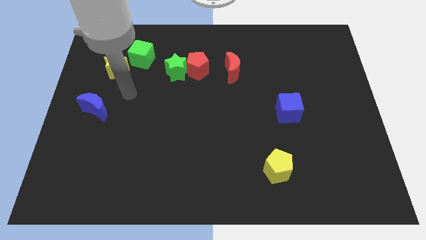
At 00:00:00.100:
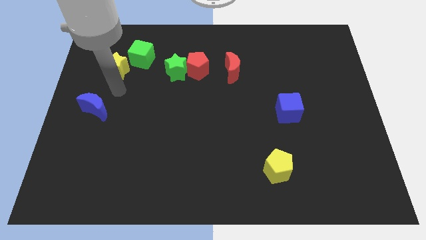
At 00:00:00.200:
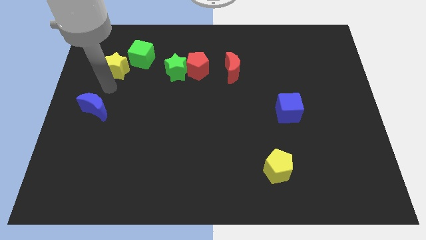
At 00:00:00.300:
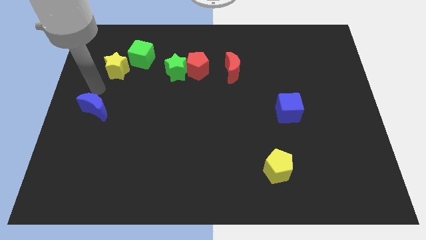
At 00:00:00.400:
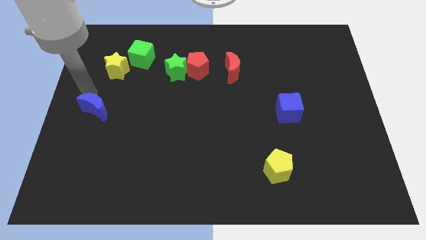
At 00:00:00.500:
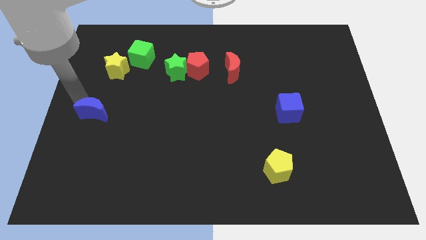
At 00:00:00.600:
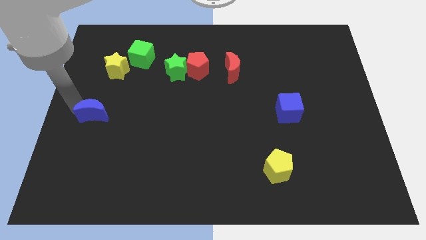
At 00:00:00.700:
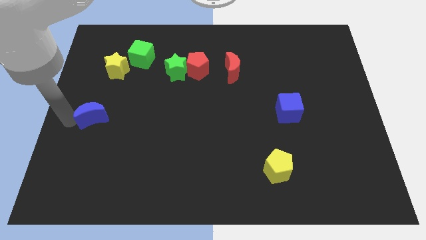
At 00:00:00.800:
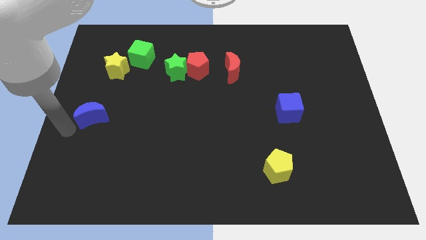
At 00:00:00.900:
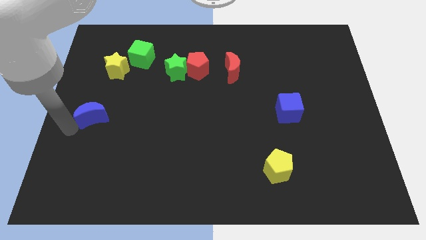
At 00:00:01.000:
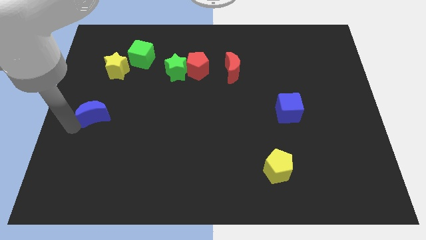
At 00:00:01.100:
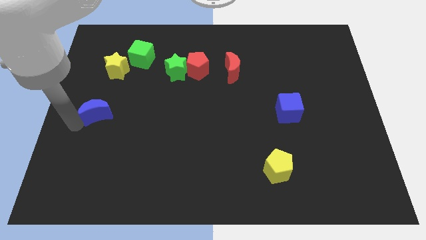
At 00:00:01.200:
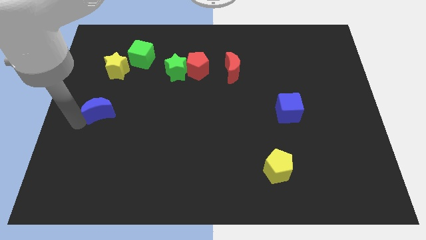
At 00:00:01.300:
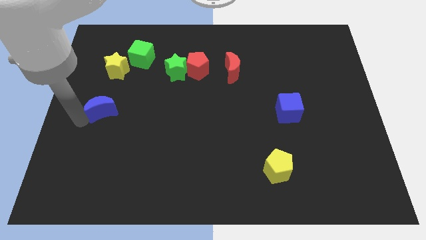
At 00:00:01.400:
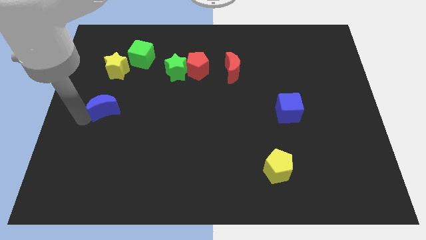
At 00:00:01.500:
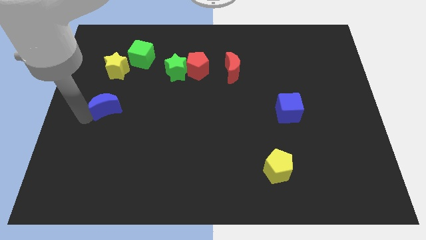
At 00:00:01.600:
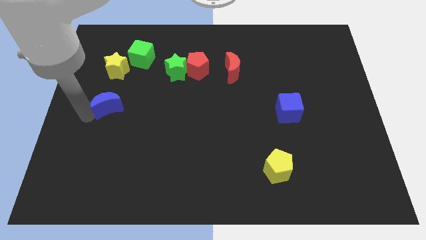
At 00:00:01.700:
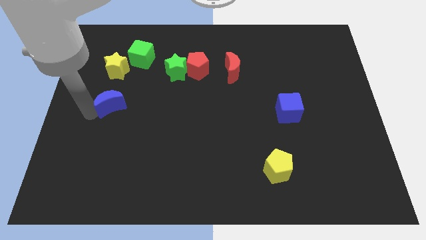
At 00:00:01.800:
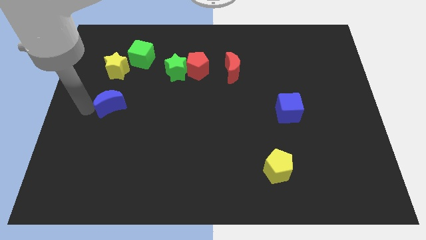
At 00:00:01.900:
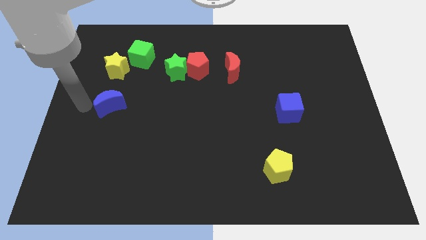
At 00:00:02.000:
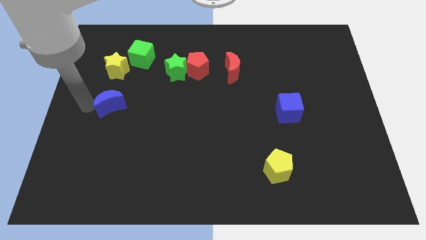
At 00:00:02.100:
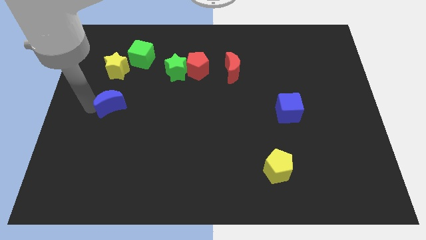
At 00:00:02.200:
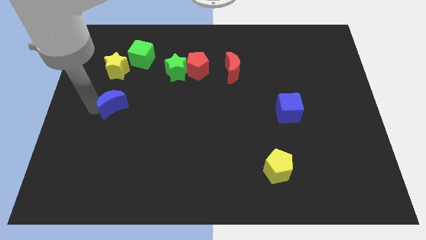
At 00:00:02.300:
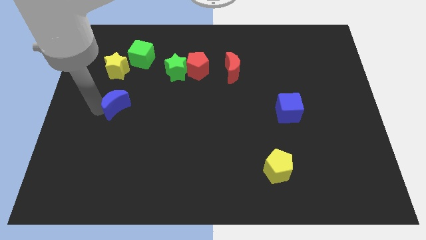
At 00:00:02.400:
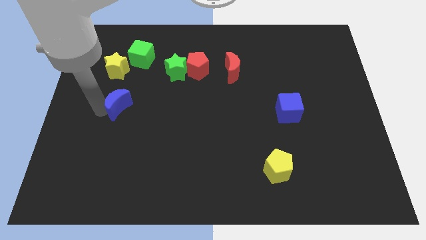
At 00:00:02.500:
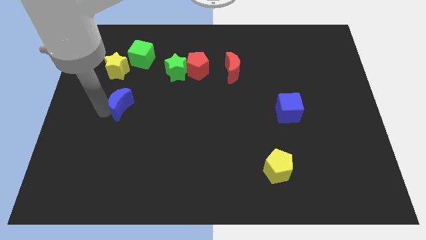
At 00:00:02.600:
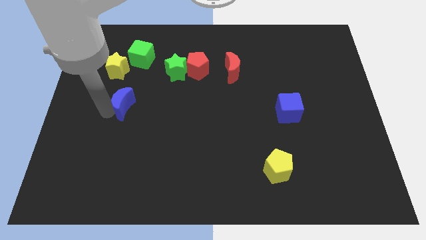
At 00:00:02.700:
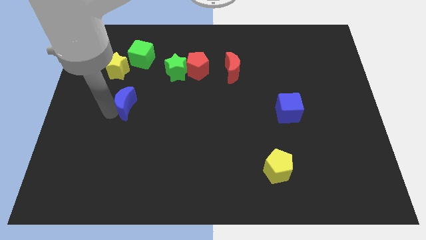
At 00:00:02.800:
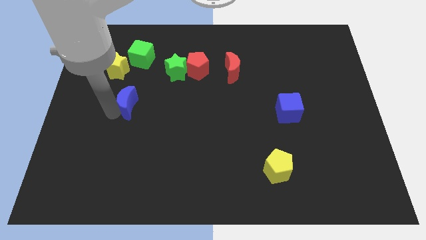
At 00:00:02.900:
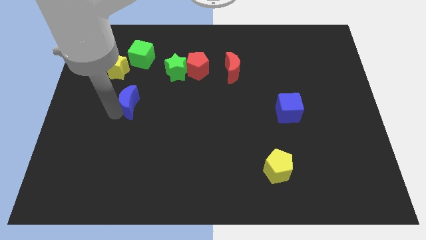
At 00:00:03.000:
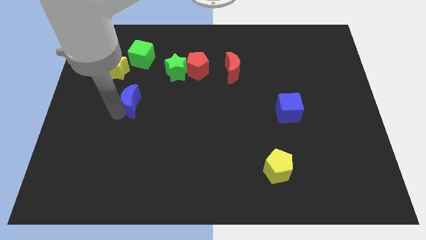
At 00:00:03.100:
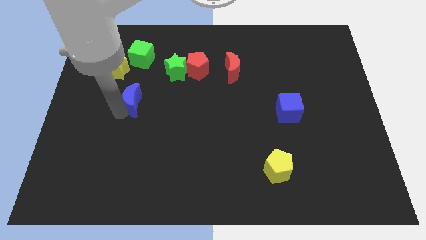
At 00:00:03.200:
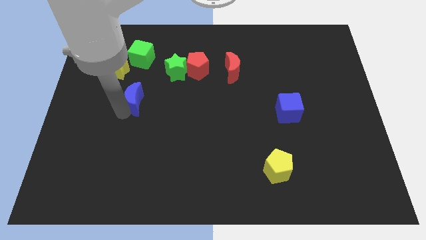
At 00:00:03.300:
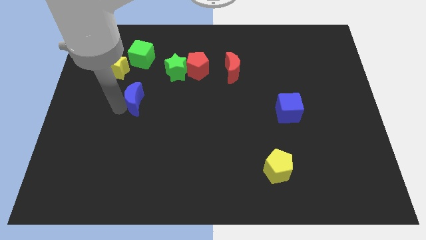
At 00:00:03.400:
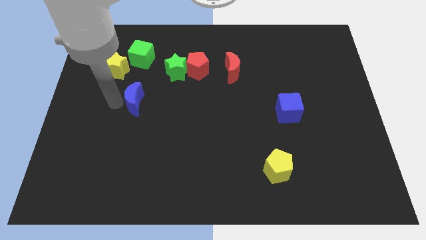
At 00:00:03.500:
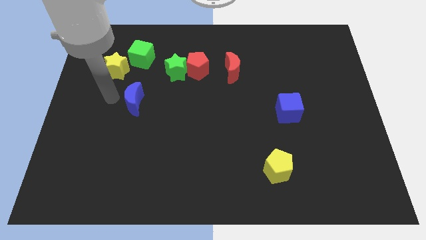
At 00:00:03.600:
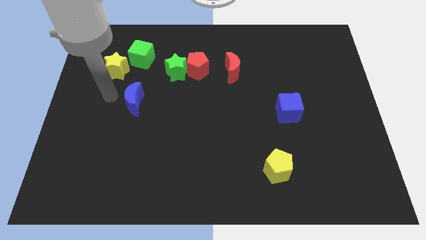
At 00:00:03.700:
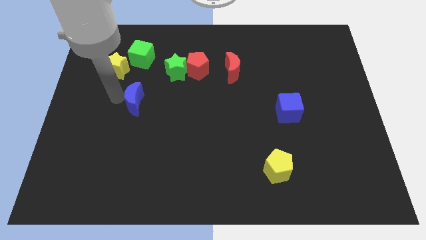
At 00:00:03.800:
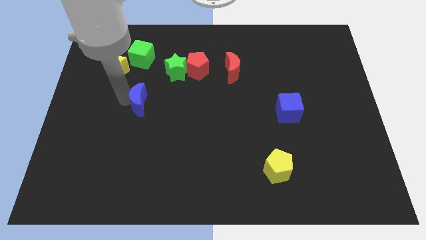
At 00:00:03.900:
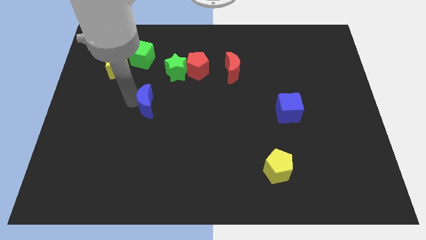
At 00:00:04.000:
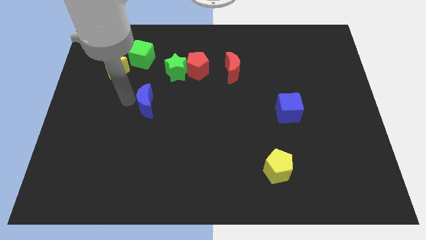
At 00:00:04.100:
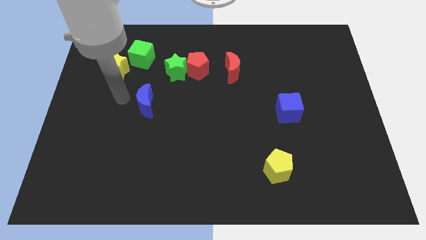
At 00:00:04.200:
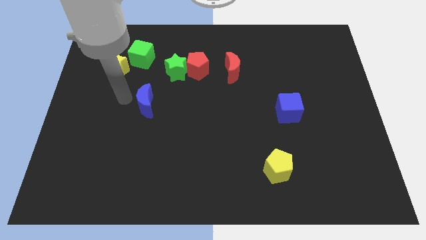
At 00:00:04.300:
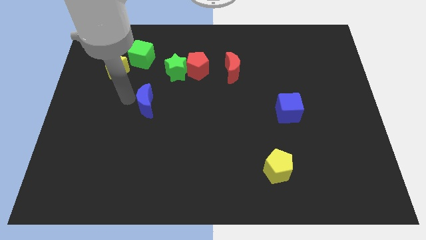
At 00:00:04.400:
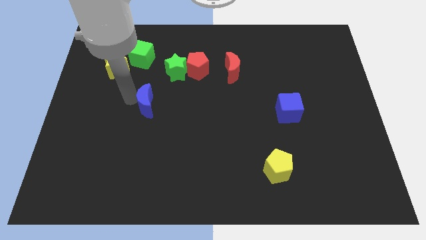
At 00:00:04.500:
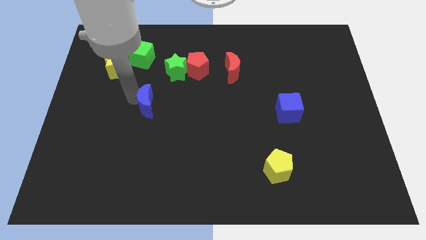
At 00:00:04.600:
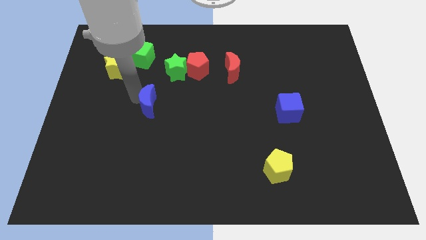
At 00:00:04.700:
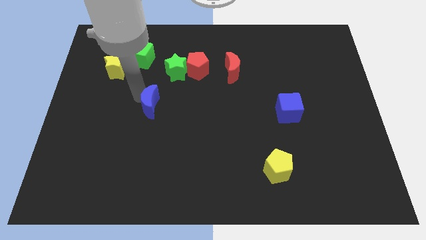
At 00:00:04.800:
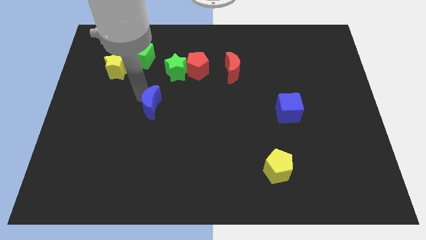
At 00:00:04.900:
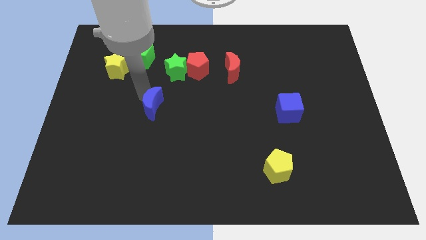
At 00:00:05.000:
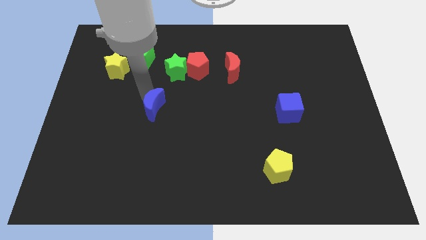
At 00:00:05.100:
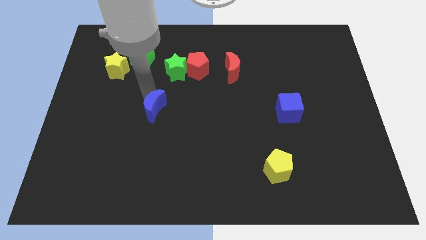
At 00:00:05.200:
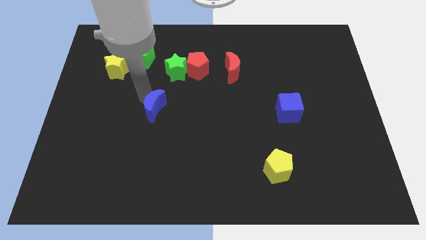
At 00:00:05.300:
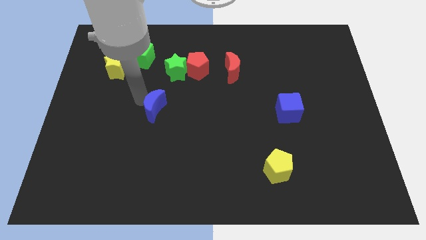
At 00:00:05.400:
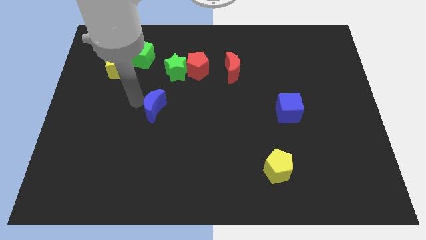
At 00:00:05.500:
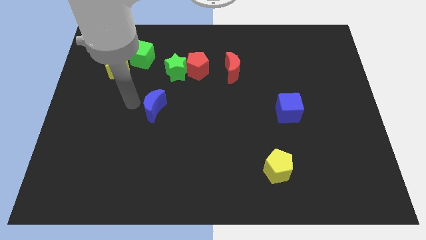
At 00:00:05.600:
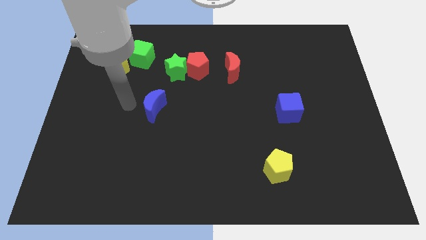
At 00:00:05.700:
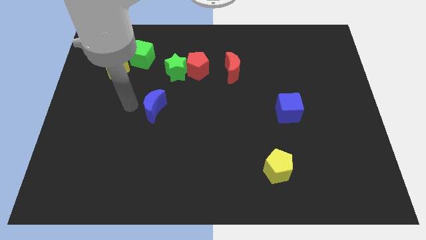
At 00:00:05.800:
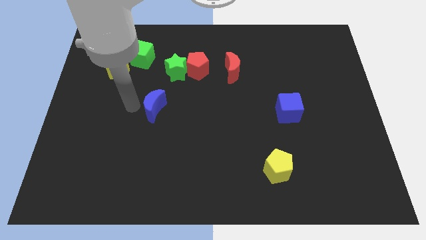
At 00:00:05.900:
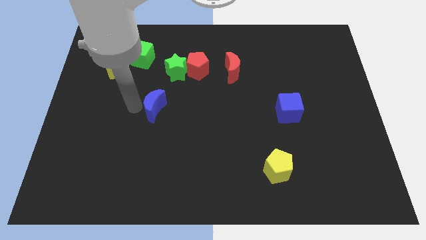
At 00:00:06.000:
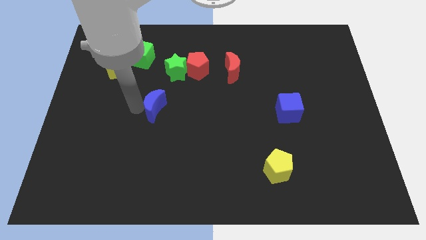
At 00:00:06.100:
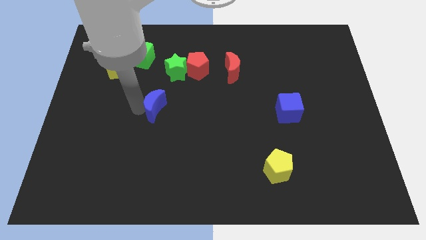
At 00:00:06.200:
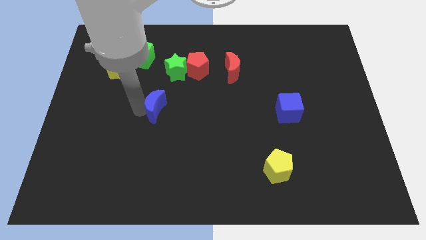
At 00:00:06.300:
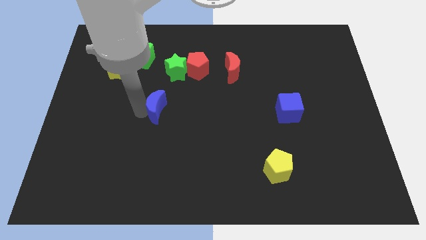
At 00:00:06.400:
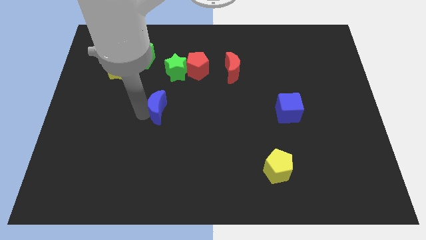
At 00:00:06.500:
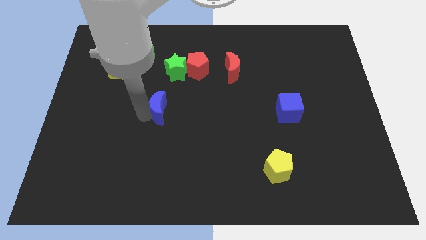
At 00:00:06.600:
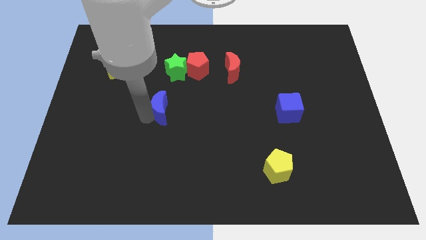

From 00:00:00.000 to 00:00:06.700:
slide the blue moon to the center of the board

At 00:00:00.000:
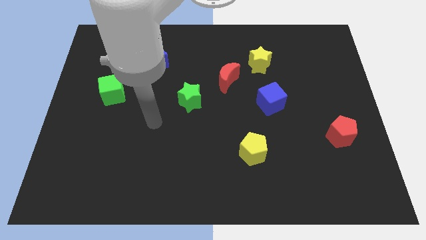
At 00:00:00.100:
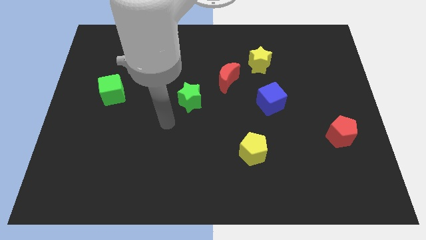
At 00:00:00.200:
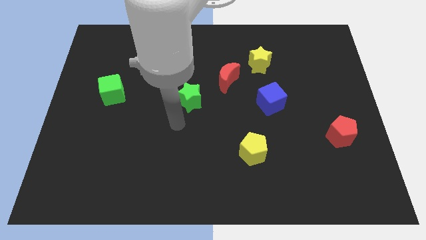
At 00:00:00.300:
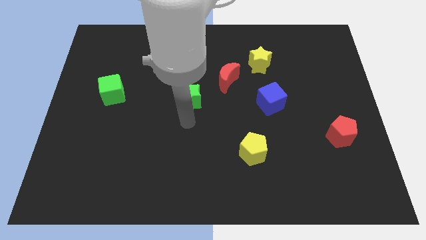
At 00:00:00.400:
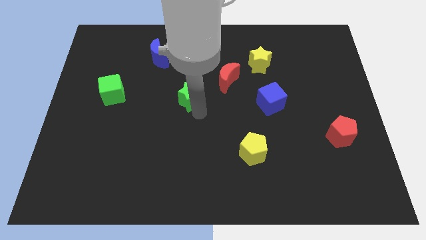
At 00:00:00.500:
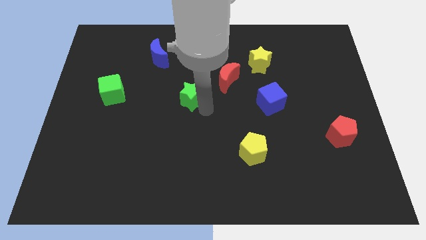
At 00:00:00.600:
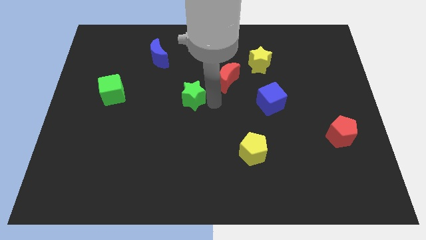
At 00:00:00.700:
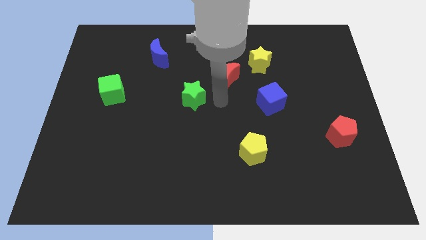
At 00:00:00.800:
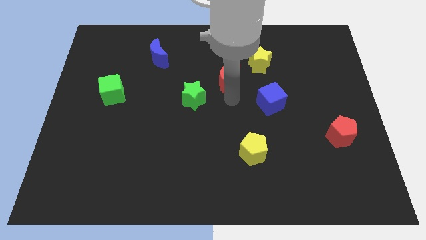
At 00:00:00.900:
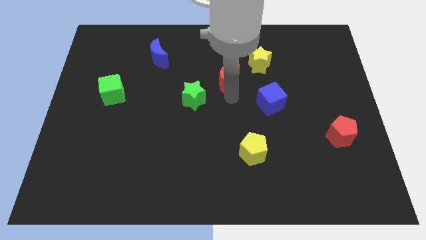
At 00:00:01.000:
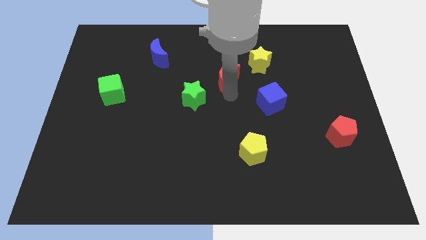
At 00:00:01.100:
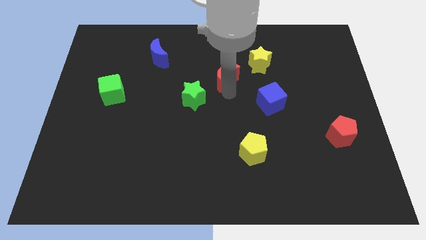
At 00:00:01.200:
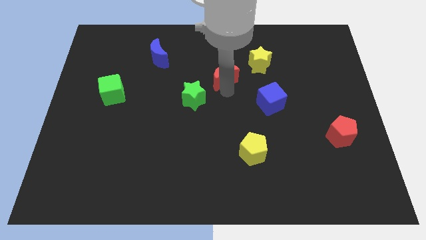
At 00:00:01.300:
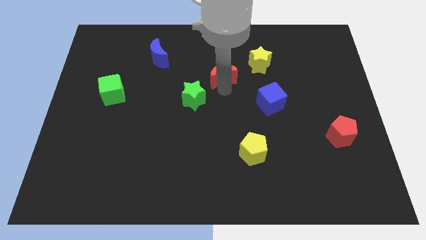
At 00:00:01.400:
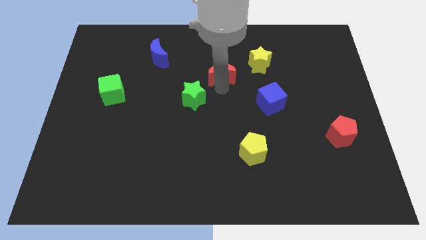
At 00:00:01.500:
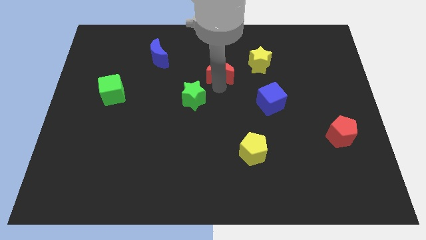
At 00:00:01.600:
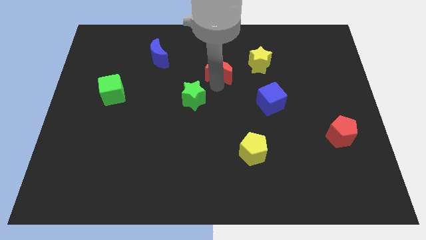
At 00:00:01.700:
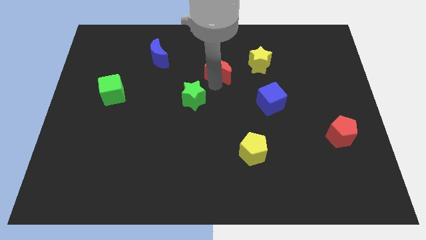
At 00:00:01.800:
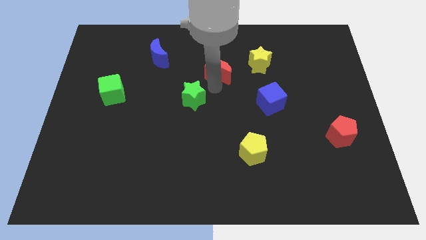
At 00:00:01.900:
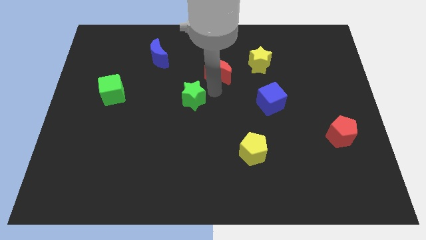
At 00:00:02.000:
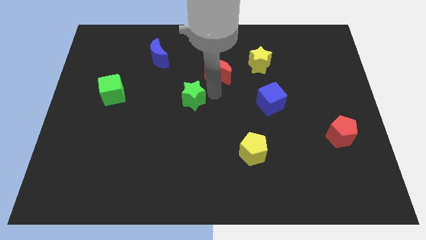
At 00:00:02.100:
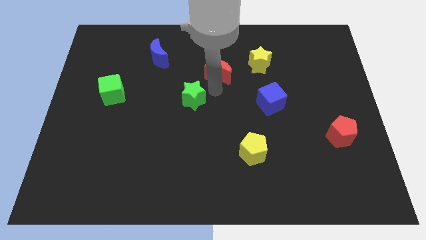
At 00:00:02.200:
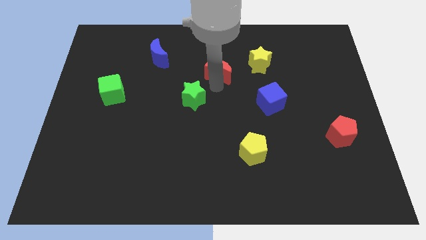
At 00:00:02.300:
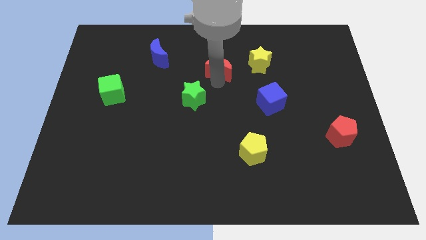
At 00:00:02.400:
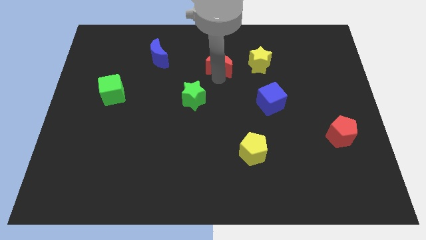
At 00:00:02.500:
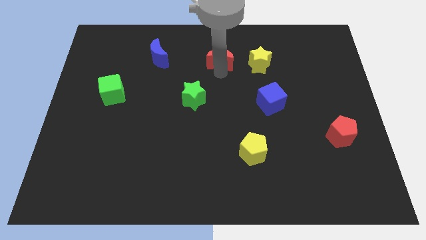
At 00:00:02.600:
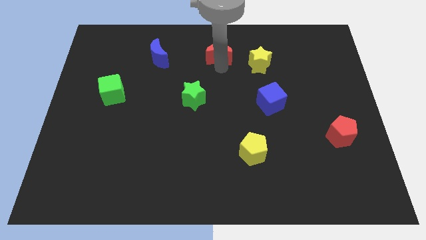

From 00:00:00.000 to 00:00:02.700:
move the red moon to the towards your base
